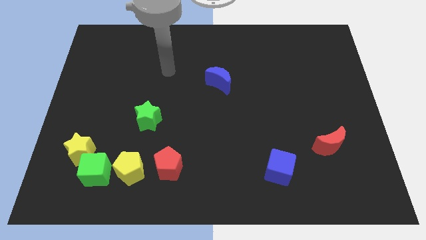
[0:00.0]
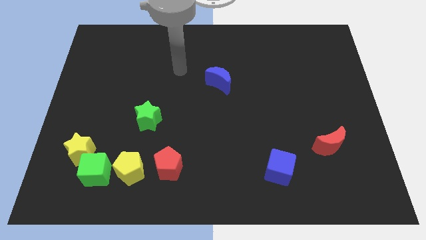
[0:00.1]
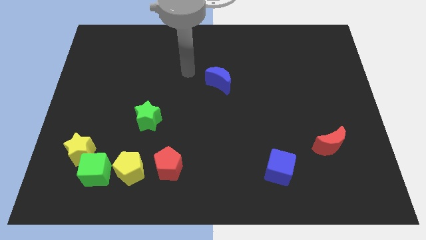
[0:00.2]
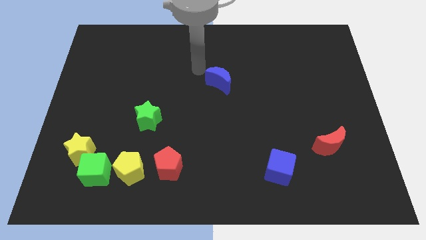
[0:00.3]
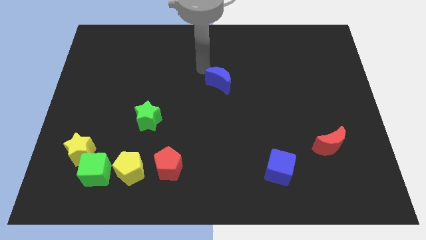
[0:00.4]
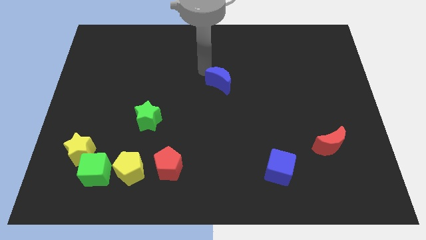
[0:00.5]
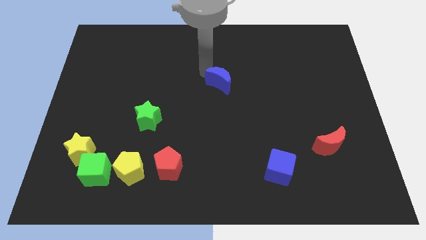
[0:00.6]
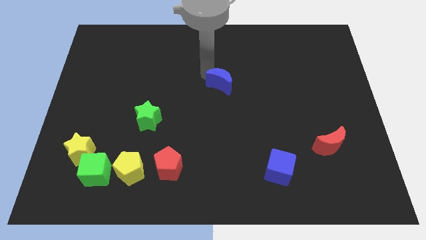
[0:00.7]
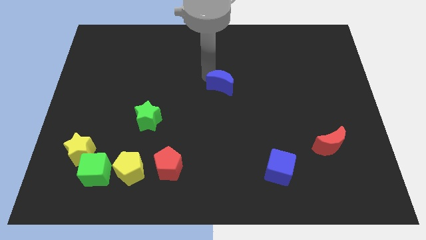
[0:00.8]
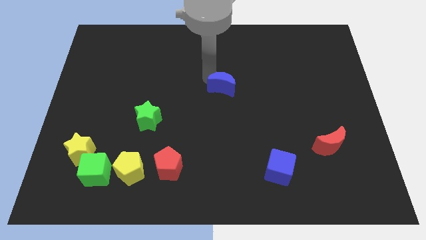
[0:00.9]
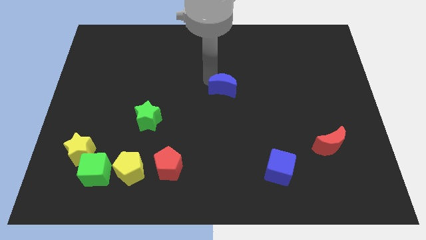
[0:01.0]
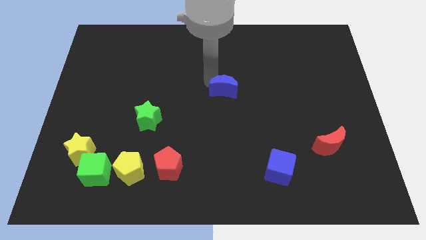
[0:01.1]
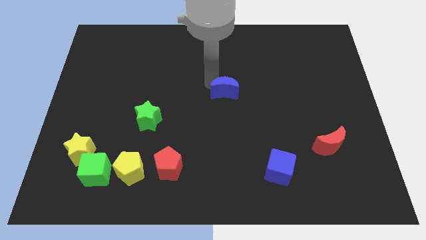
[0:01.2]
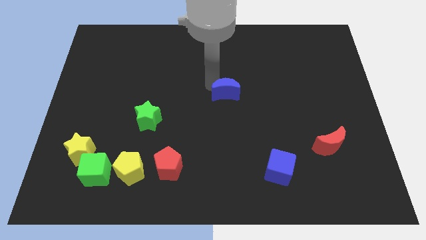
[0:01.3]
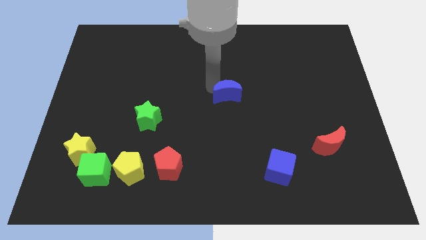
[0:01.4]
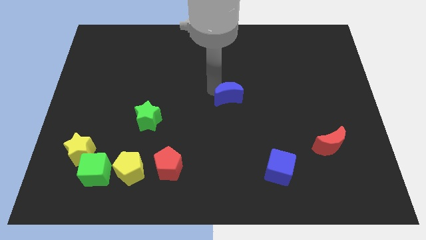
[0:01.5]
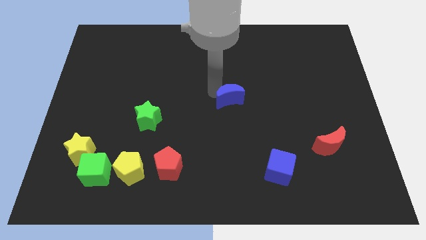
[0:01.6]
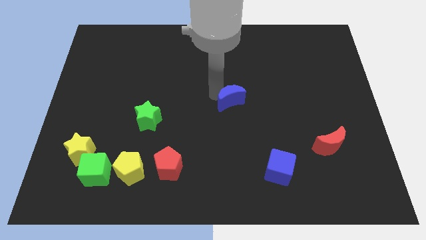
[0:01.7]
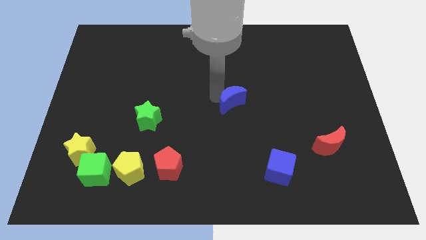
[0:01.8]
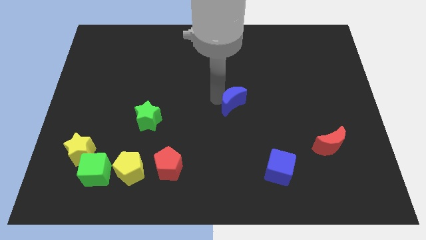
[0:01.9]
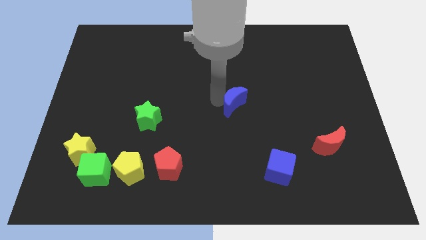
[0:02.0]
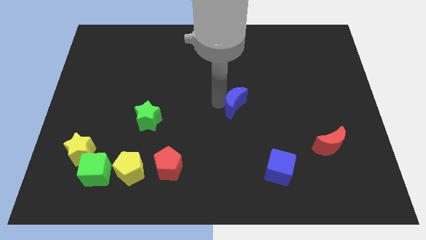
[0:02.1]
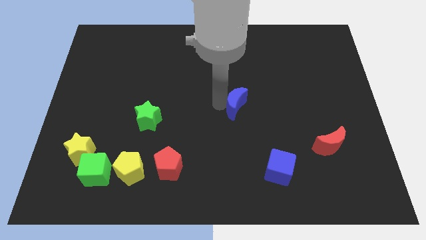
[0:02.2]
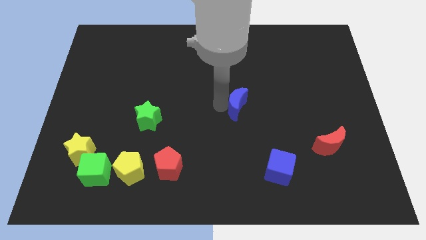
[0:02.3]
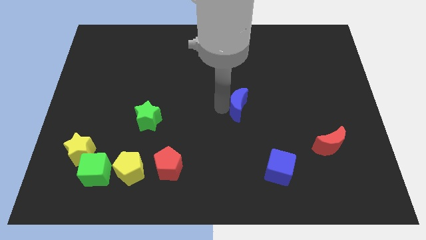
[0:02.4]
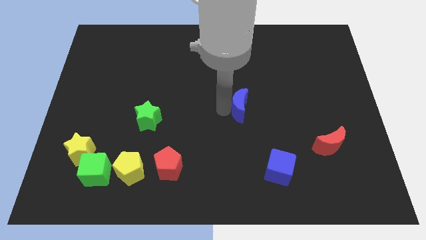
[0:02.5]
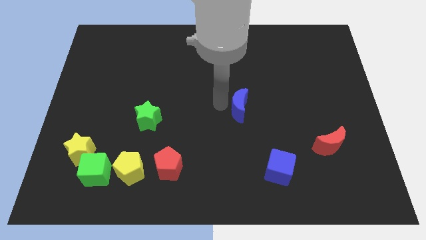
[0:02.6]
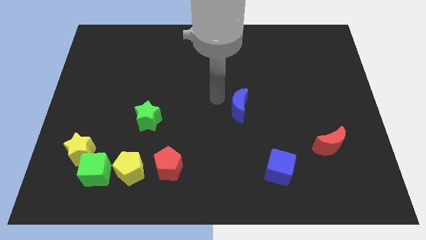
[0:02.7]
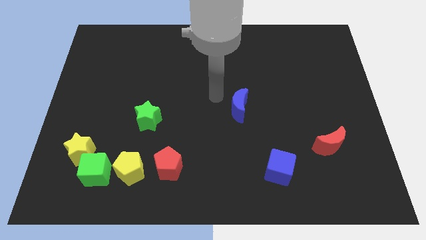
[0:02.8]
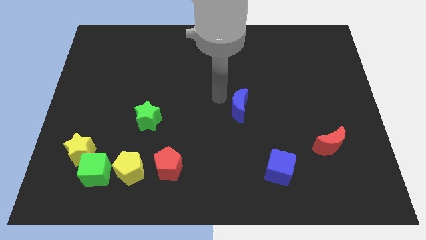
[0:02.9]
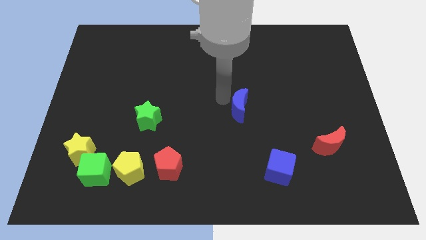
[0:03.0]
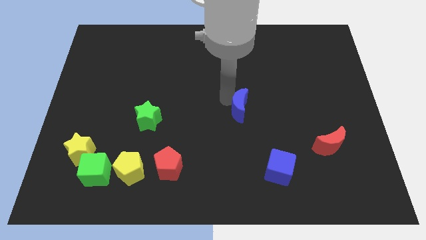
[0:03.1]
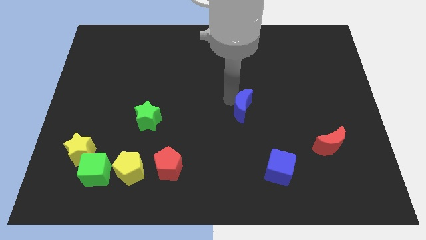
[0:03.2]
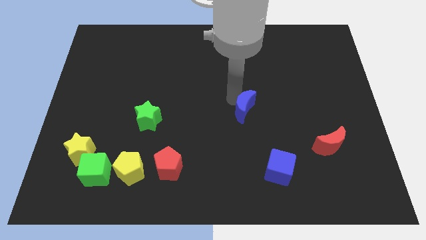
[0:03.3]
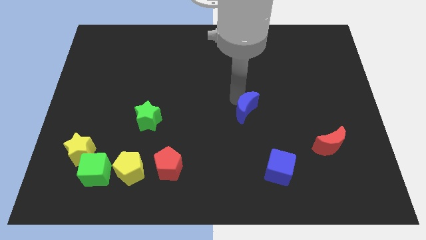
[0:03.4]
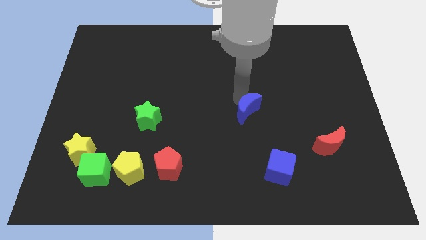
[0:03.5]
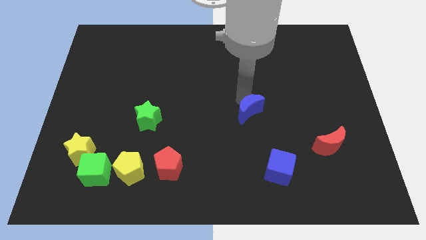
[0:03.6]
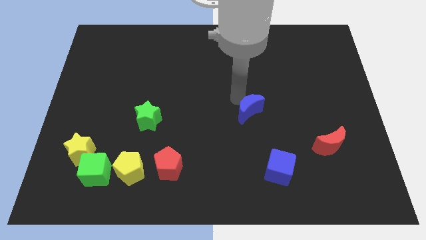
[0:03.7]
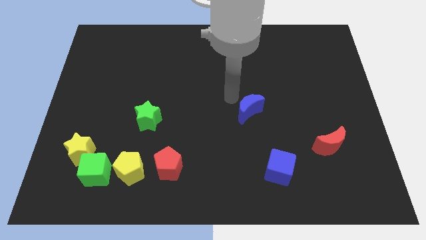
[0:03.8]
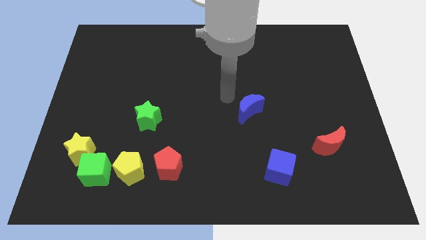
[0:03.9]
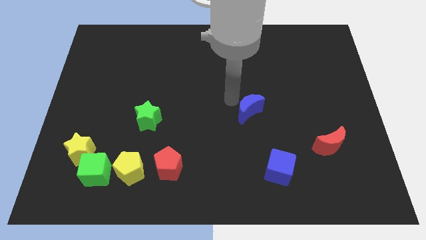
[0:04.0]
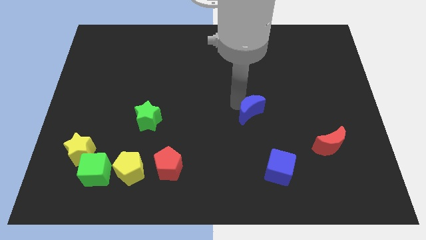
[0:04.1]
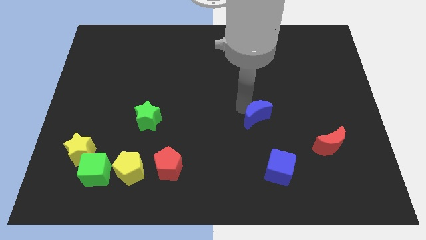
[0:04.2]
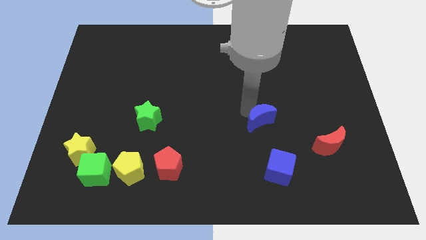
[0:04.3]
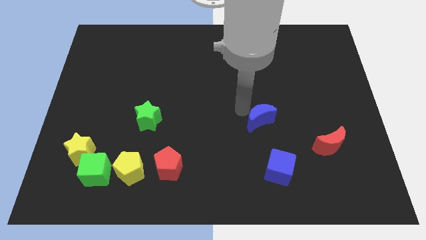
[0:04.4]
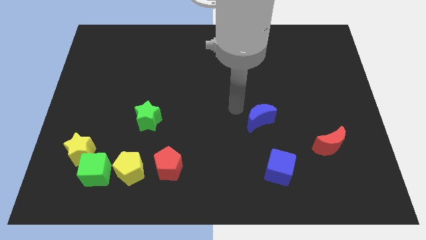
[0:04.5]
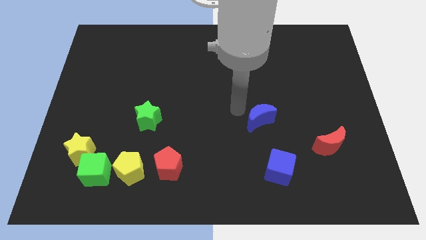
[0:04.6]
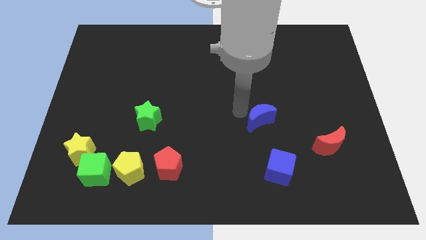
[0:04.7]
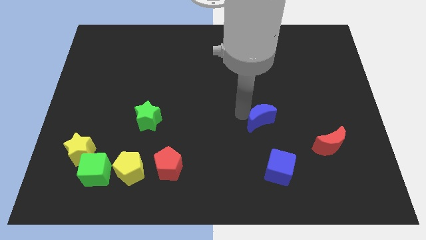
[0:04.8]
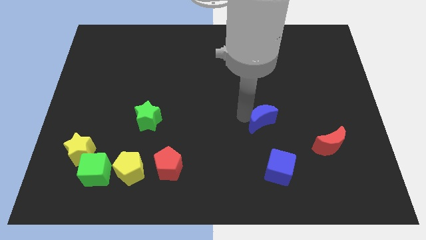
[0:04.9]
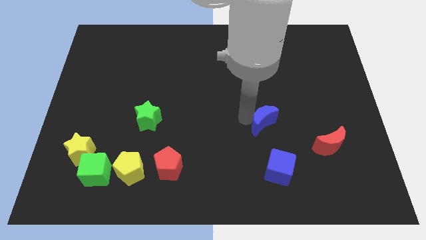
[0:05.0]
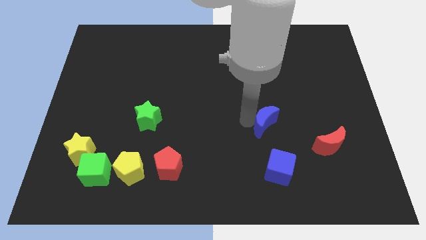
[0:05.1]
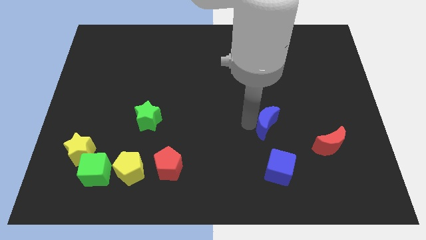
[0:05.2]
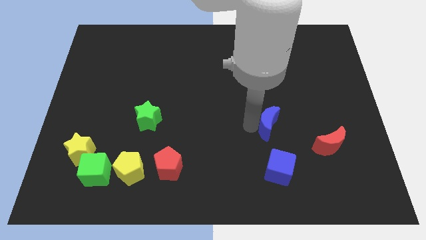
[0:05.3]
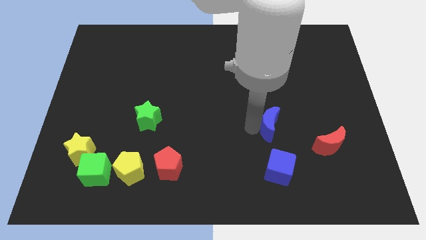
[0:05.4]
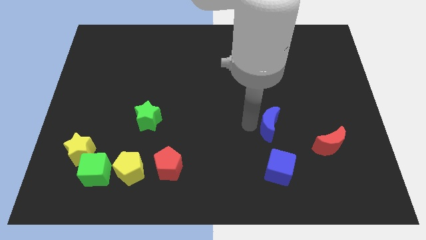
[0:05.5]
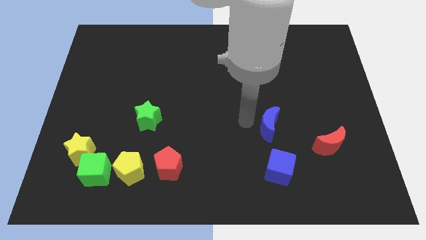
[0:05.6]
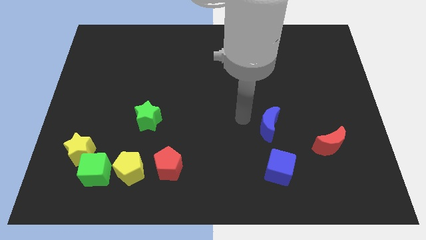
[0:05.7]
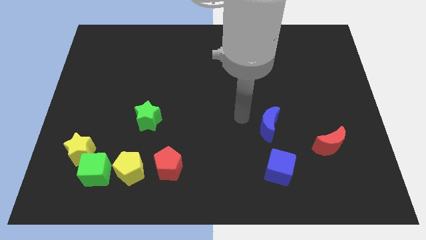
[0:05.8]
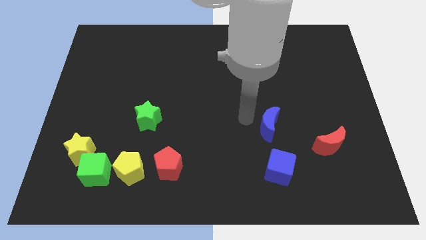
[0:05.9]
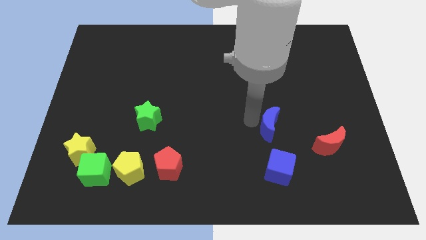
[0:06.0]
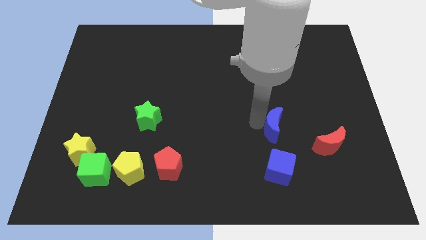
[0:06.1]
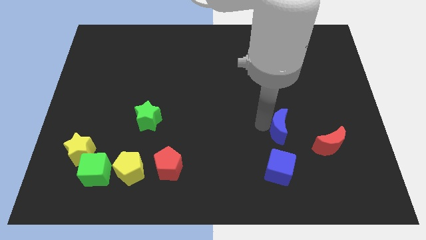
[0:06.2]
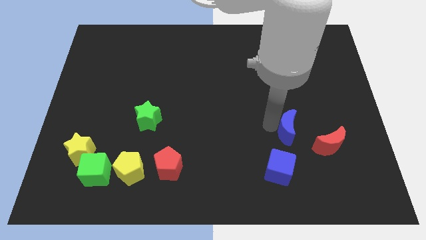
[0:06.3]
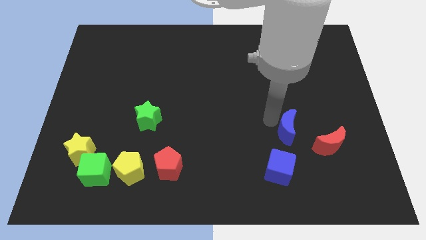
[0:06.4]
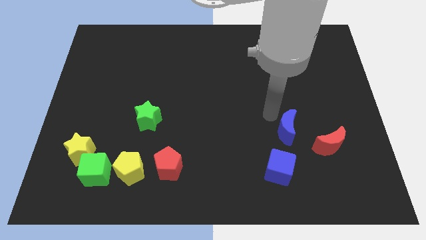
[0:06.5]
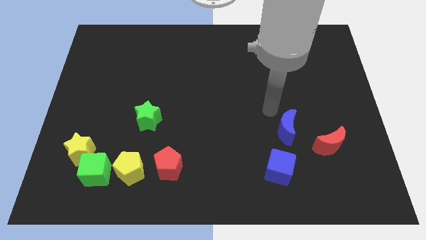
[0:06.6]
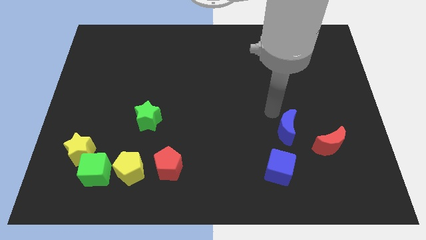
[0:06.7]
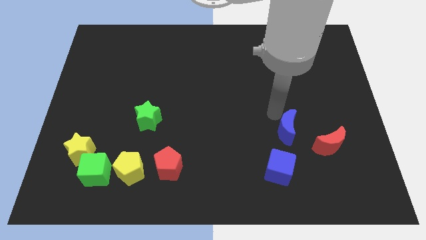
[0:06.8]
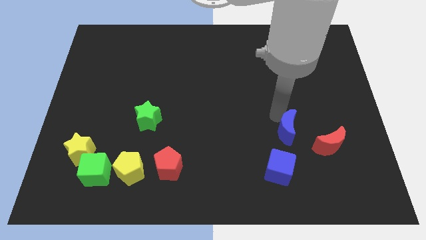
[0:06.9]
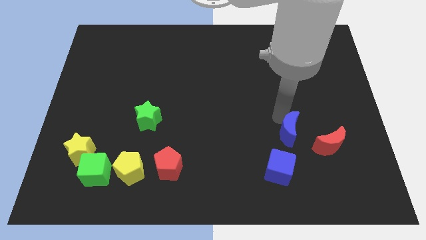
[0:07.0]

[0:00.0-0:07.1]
move the blue moon to the top right side of the blue cube
